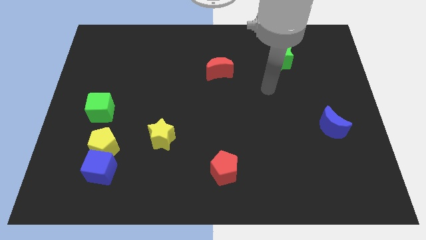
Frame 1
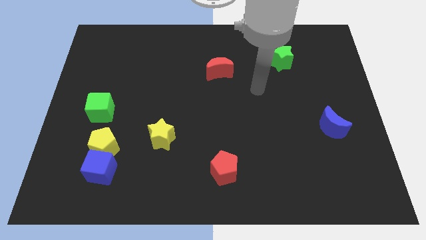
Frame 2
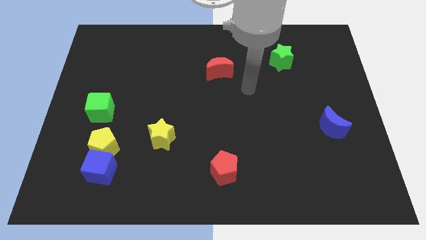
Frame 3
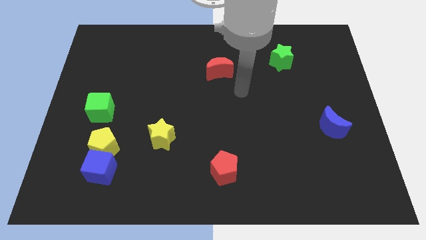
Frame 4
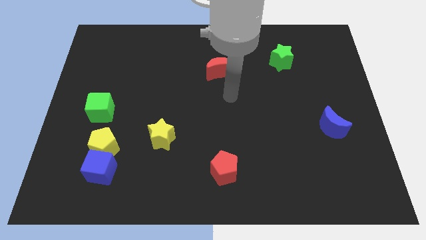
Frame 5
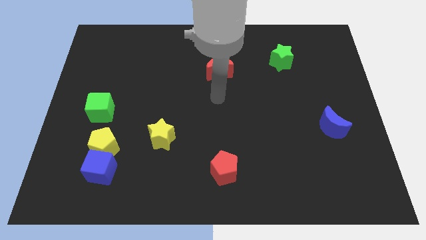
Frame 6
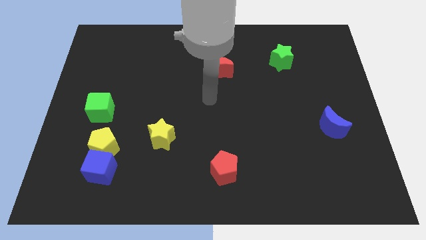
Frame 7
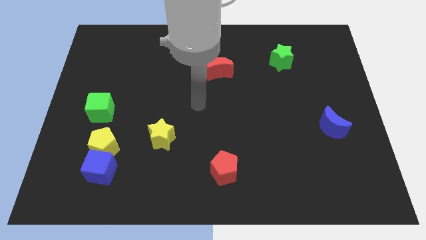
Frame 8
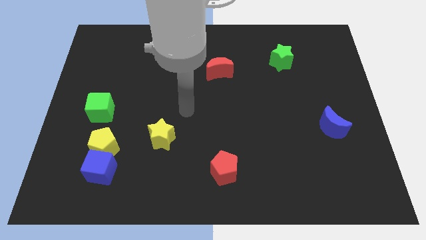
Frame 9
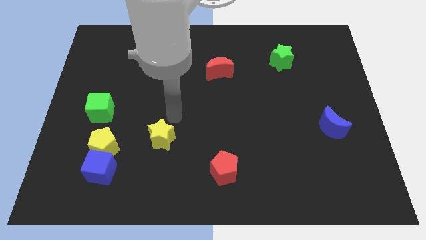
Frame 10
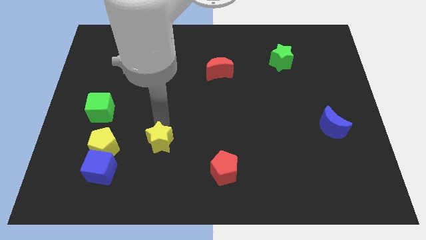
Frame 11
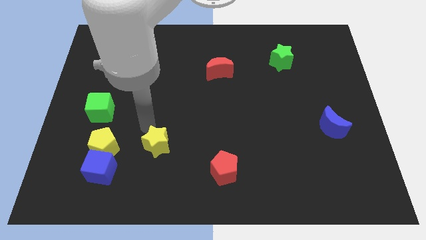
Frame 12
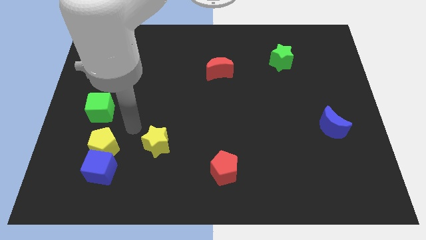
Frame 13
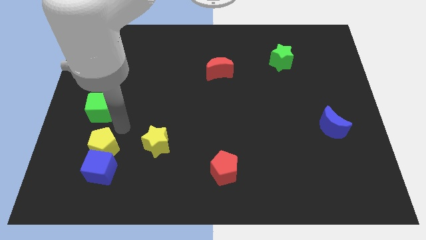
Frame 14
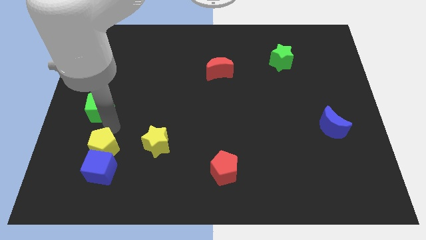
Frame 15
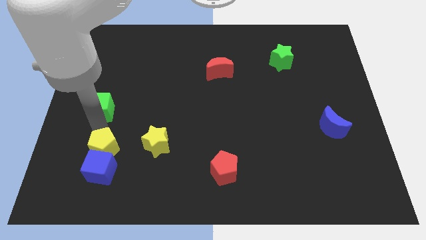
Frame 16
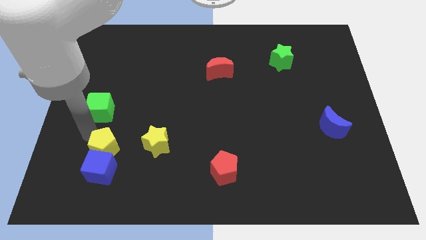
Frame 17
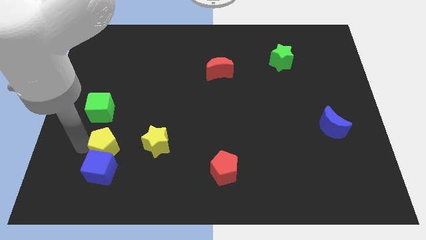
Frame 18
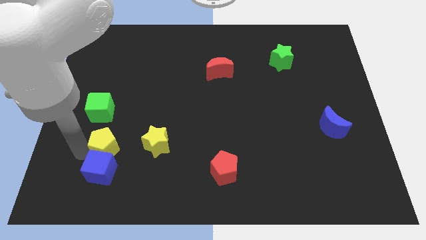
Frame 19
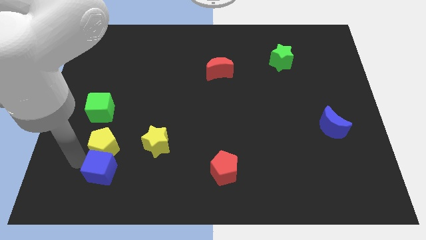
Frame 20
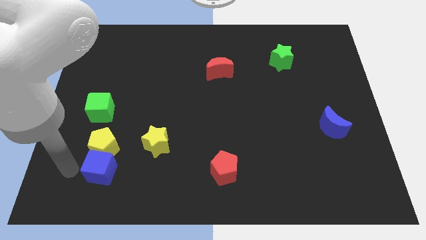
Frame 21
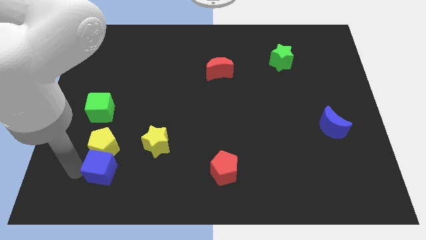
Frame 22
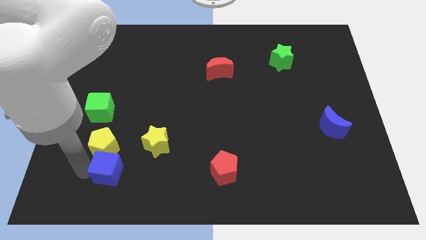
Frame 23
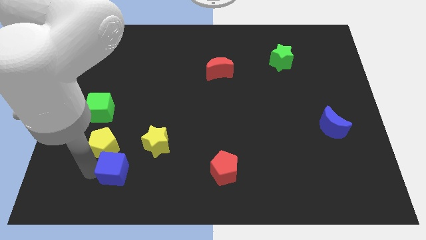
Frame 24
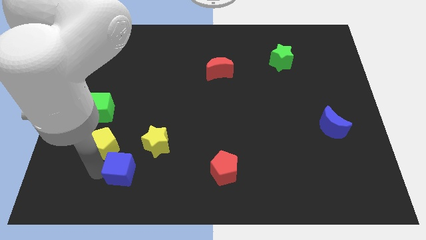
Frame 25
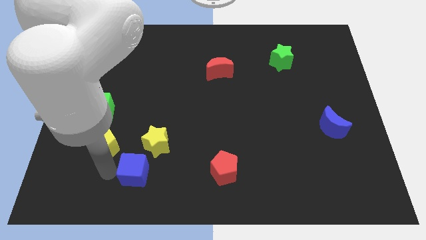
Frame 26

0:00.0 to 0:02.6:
move the blue cube to the right a little bit

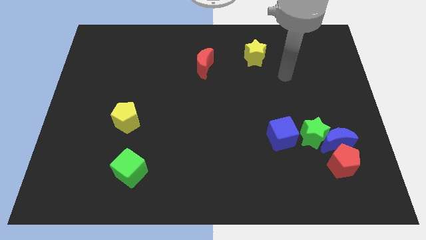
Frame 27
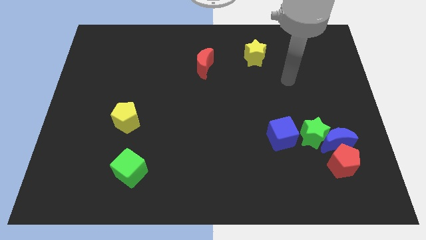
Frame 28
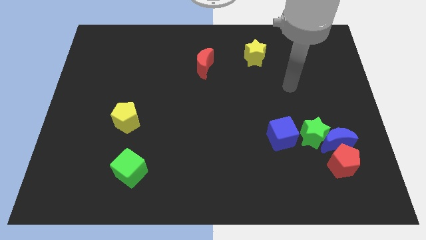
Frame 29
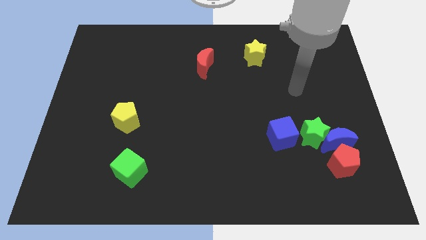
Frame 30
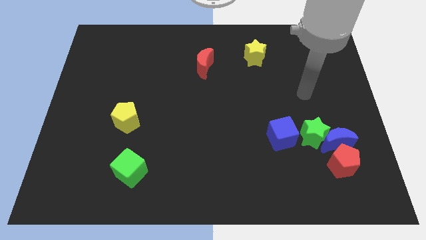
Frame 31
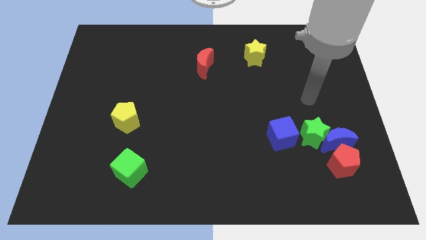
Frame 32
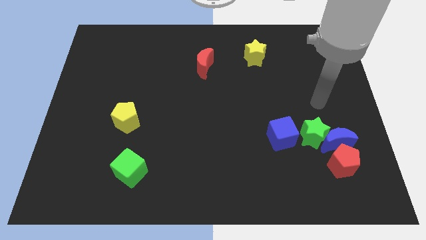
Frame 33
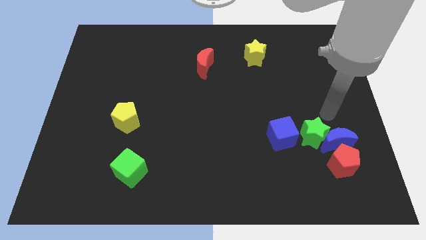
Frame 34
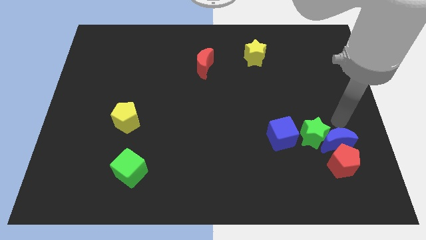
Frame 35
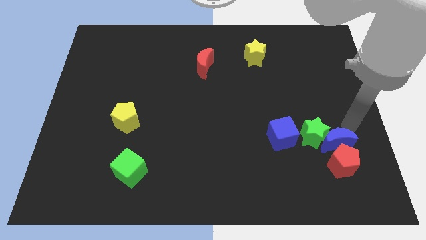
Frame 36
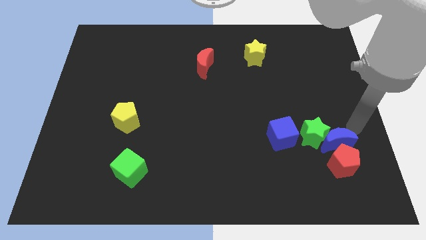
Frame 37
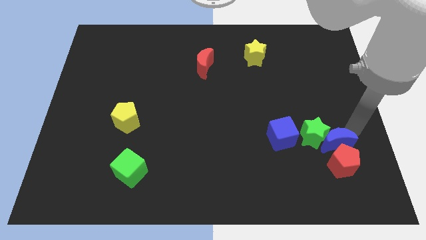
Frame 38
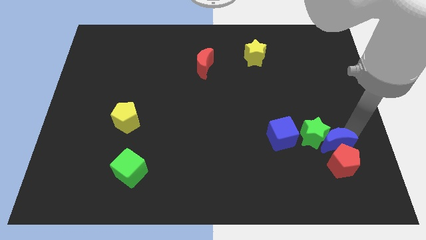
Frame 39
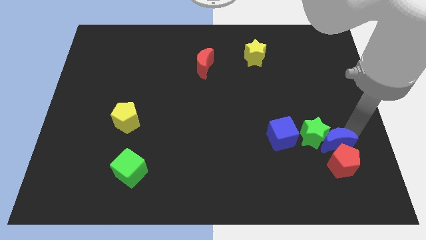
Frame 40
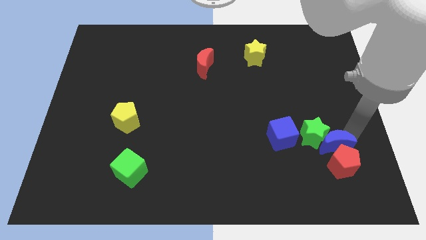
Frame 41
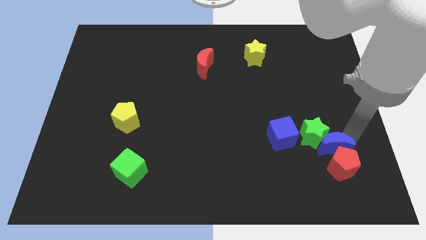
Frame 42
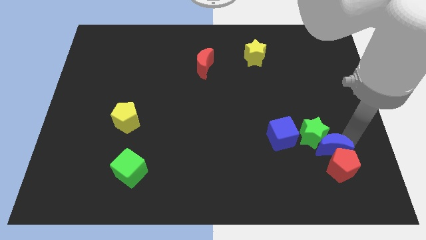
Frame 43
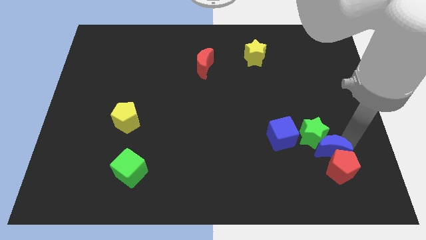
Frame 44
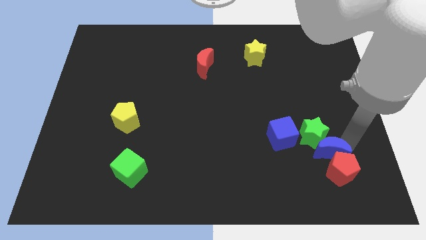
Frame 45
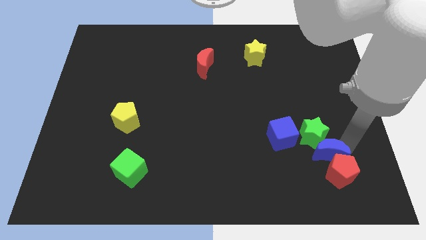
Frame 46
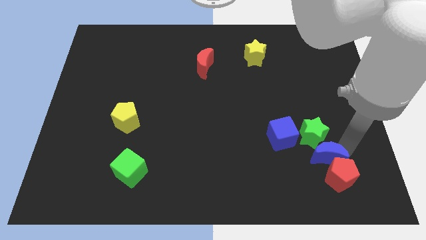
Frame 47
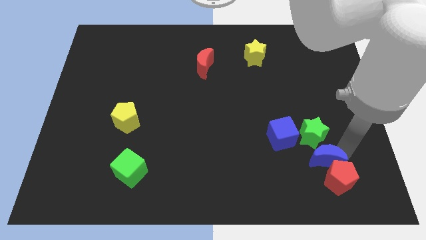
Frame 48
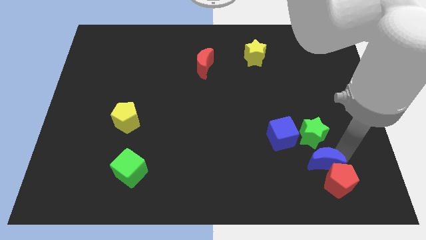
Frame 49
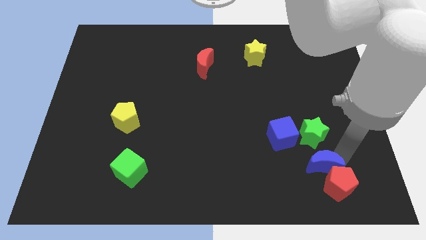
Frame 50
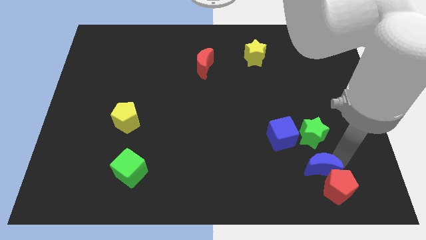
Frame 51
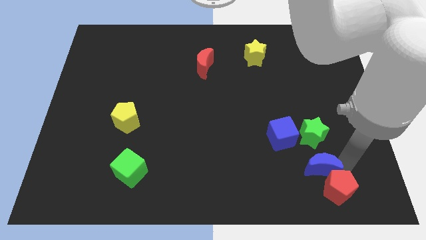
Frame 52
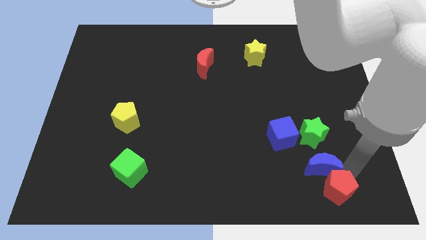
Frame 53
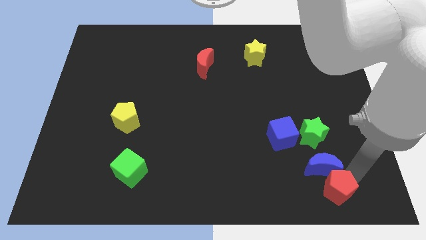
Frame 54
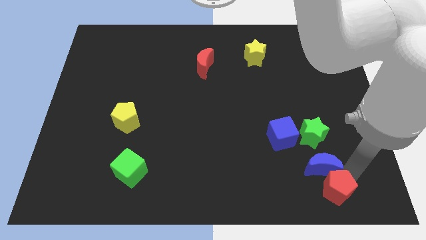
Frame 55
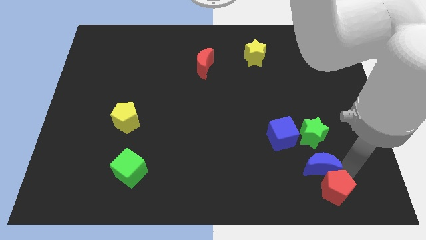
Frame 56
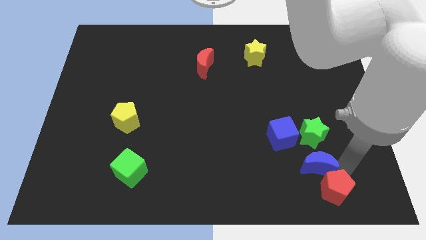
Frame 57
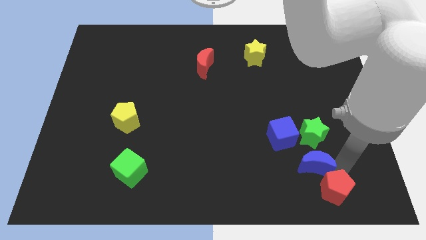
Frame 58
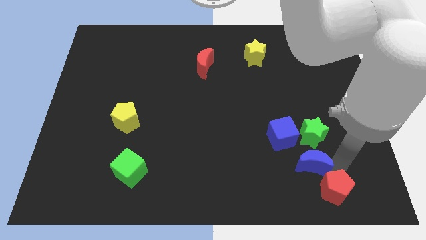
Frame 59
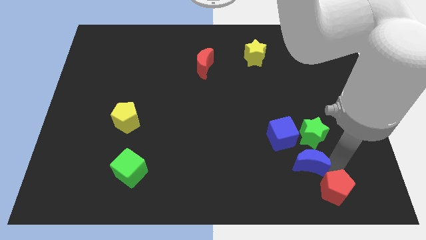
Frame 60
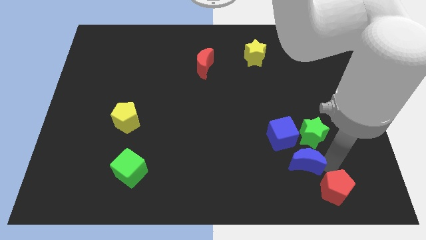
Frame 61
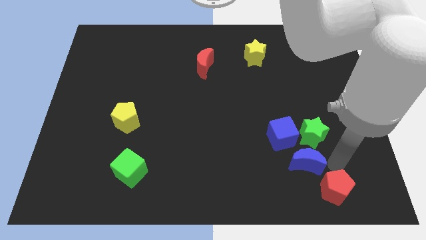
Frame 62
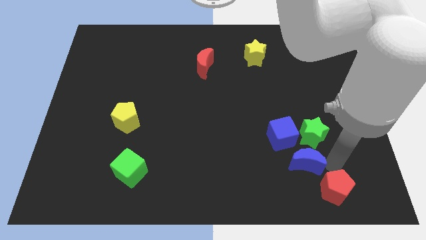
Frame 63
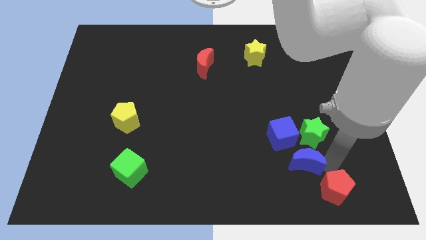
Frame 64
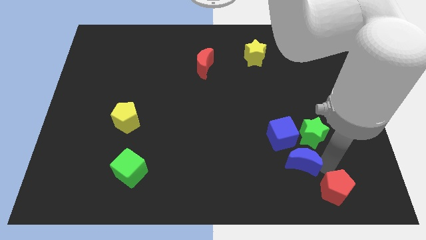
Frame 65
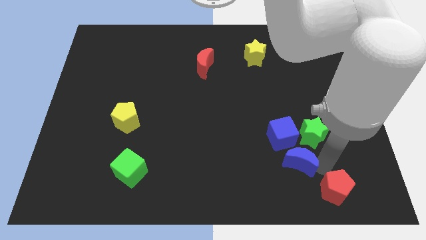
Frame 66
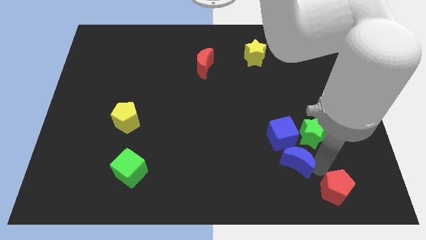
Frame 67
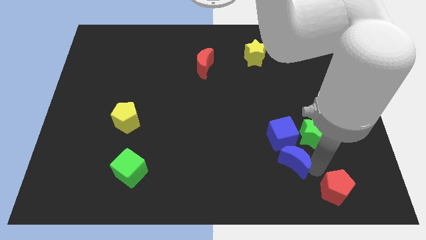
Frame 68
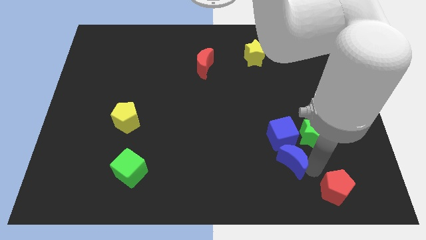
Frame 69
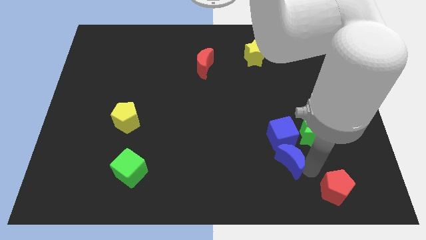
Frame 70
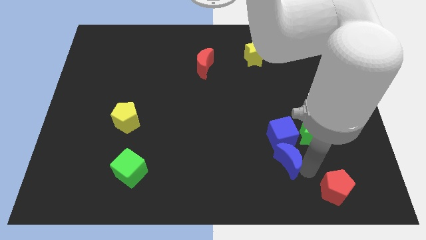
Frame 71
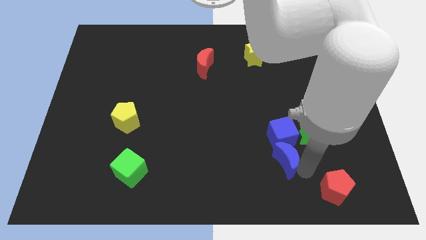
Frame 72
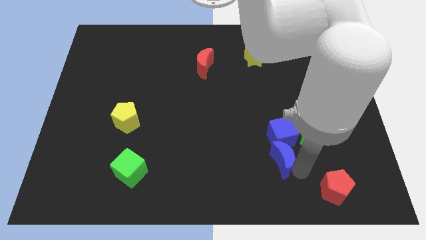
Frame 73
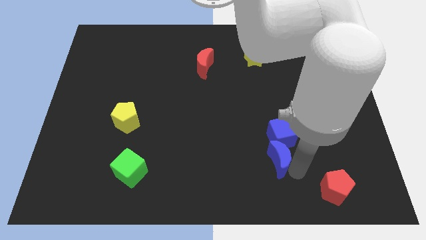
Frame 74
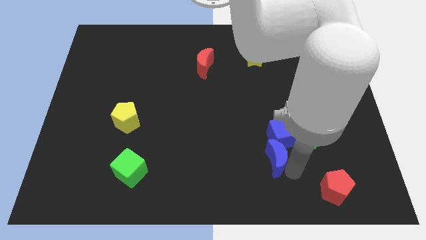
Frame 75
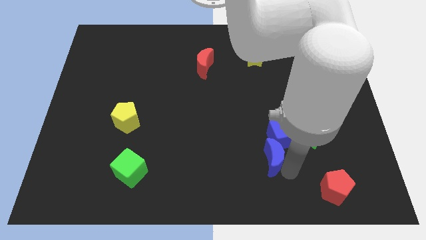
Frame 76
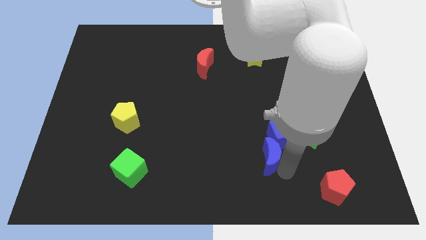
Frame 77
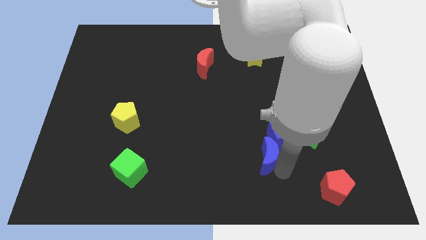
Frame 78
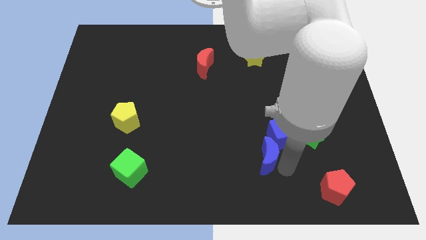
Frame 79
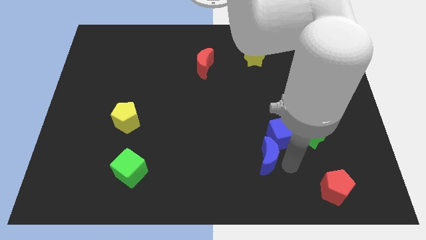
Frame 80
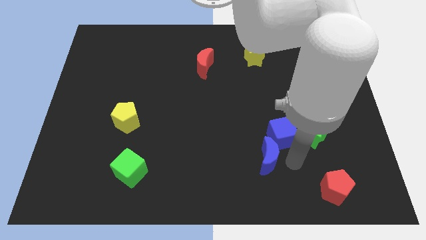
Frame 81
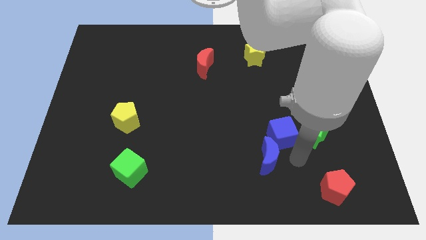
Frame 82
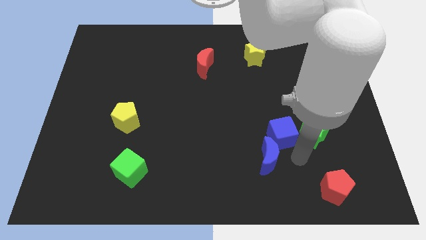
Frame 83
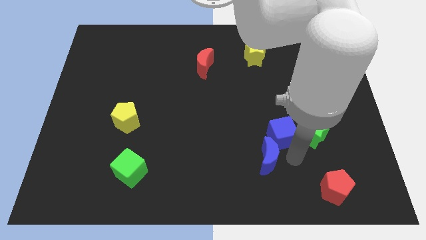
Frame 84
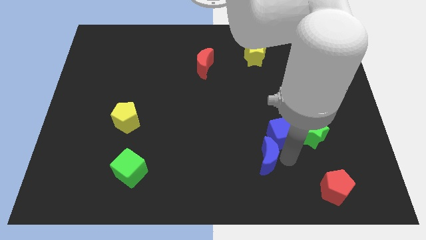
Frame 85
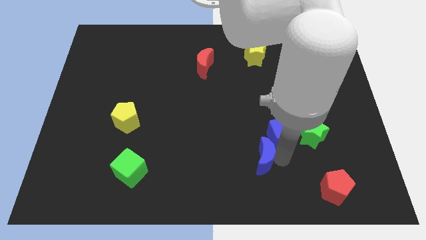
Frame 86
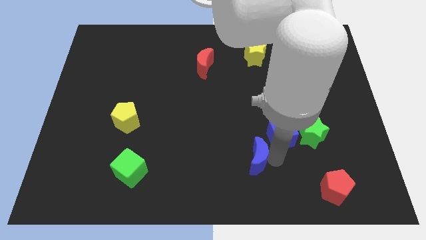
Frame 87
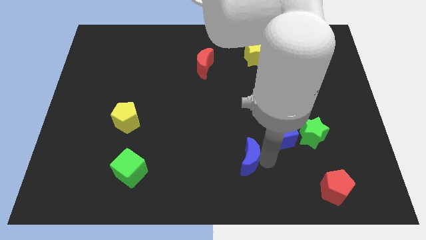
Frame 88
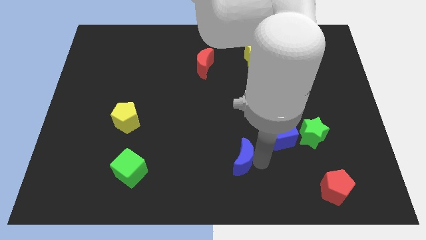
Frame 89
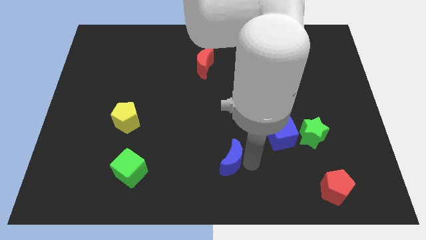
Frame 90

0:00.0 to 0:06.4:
slide the blue moon left
